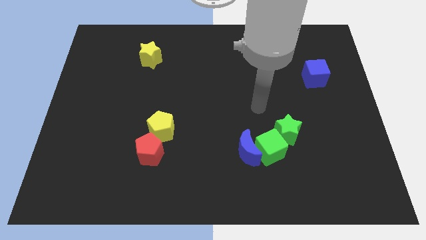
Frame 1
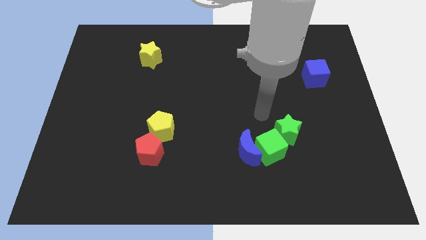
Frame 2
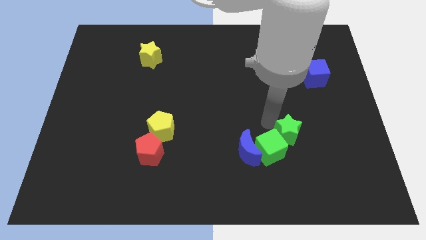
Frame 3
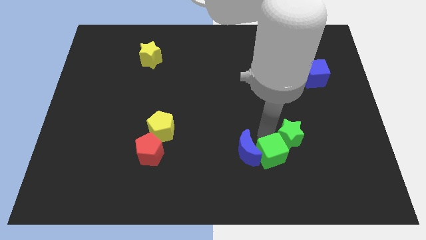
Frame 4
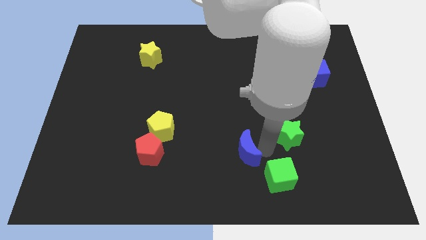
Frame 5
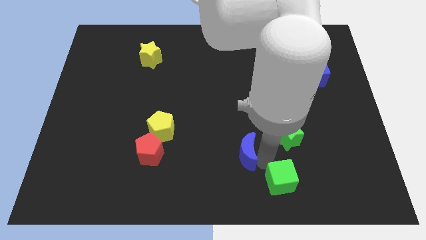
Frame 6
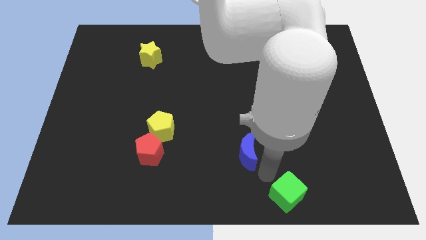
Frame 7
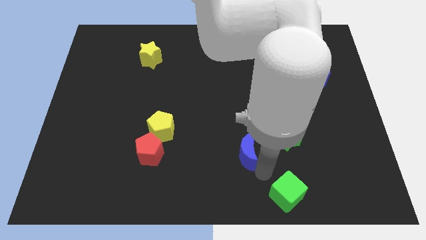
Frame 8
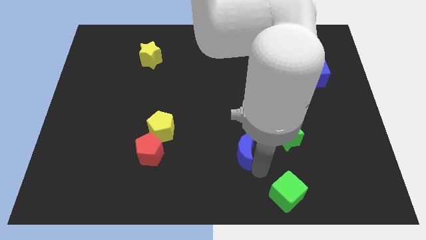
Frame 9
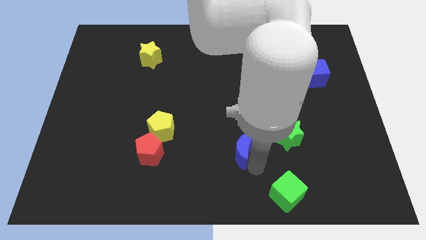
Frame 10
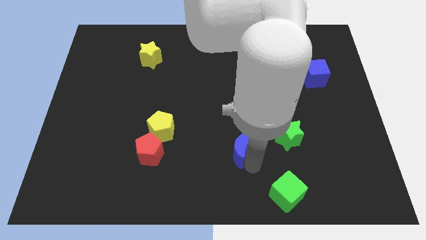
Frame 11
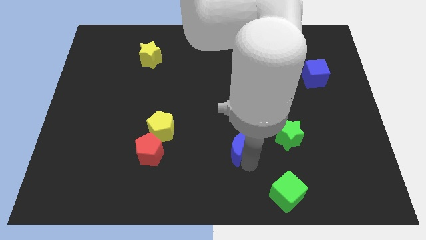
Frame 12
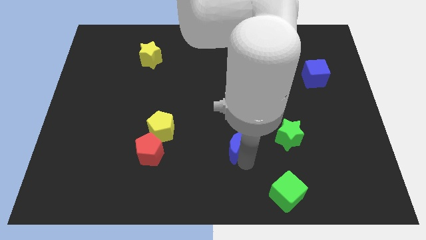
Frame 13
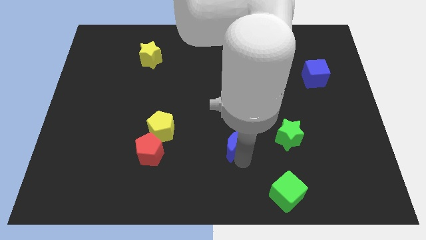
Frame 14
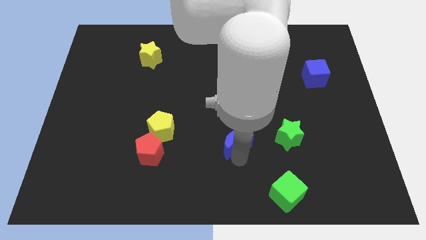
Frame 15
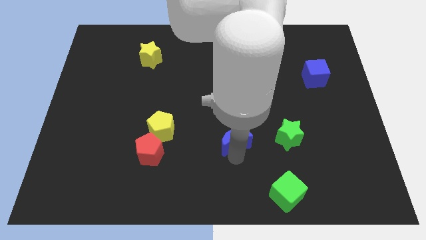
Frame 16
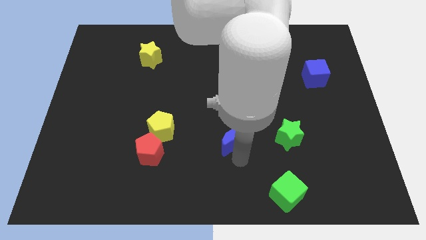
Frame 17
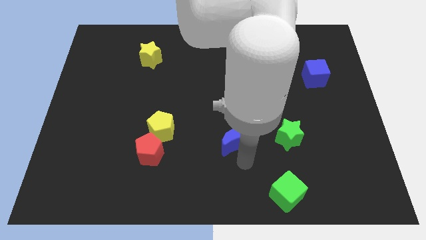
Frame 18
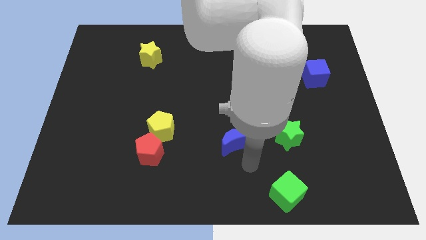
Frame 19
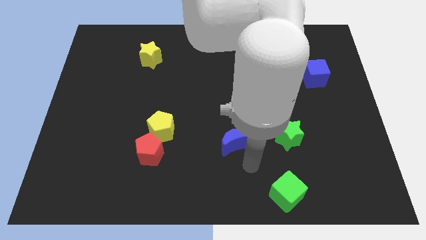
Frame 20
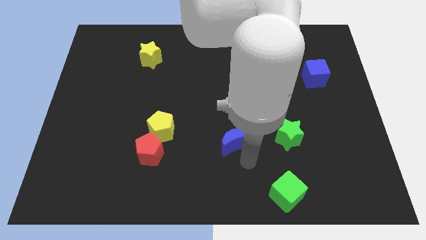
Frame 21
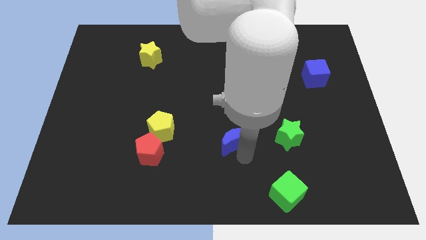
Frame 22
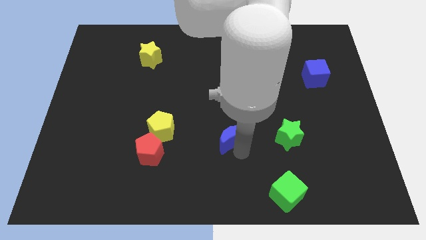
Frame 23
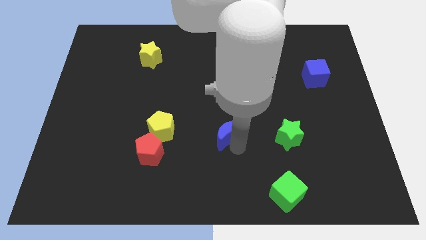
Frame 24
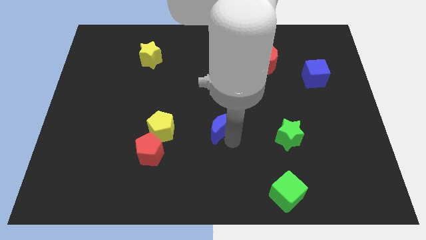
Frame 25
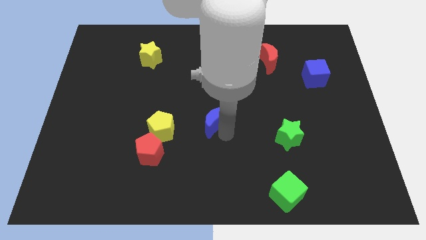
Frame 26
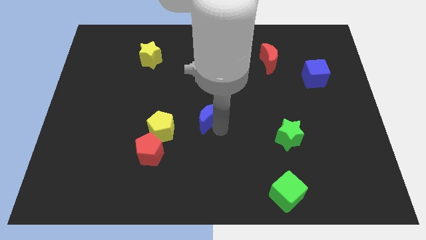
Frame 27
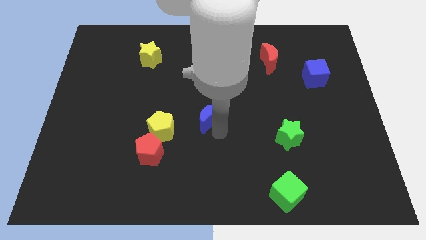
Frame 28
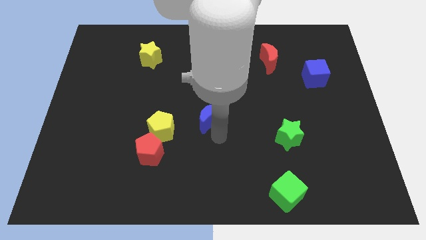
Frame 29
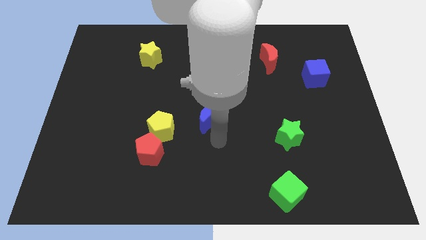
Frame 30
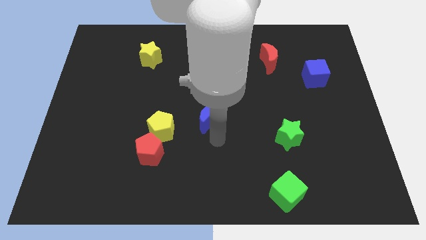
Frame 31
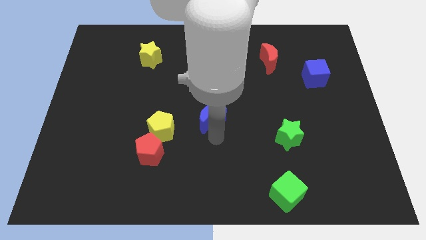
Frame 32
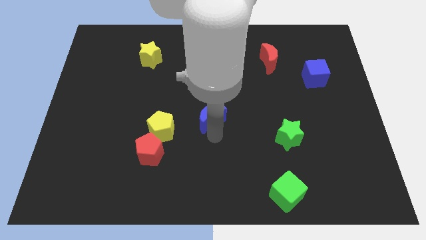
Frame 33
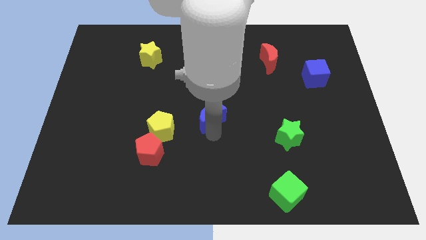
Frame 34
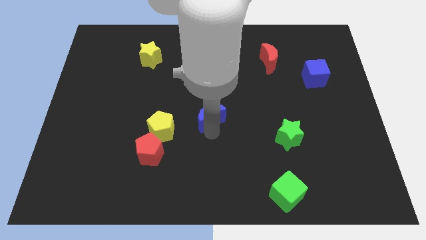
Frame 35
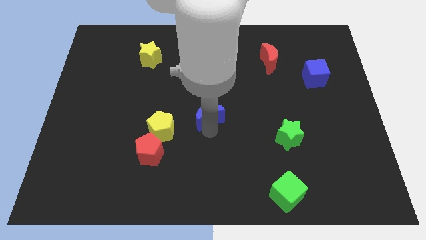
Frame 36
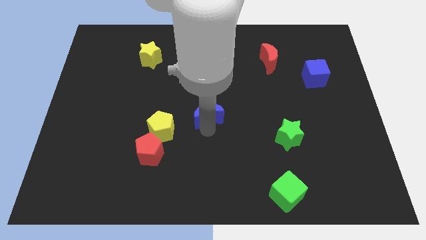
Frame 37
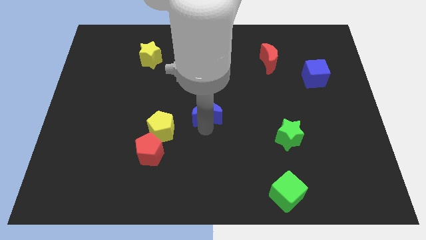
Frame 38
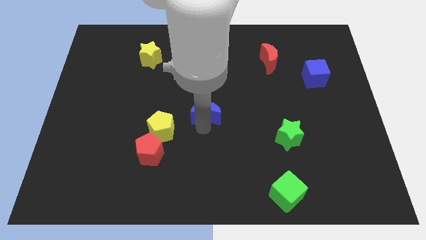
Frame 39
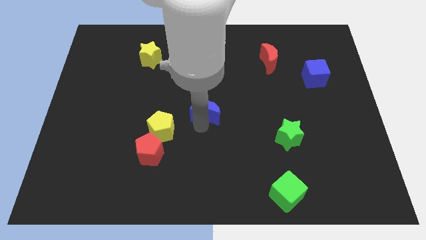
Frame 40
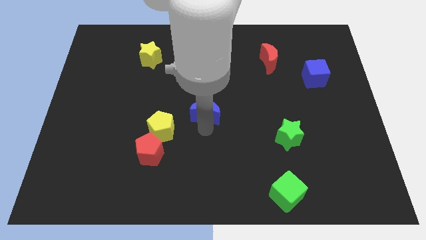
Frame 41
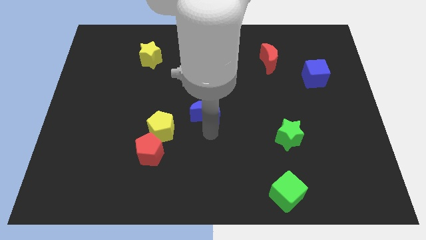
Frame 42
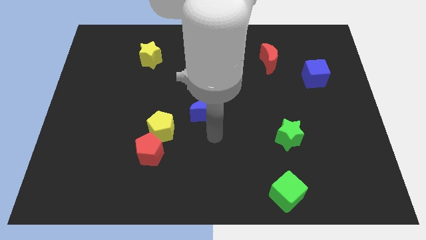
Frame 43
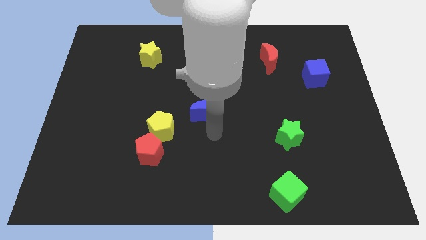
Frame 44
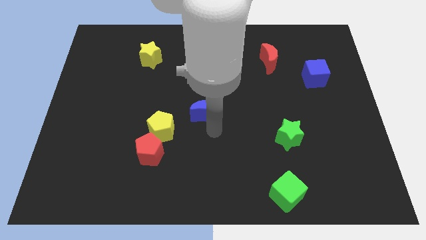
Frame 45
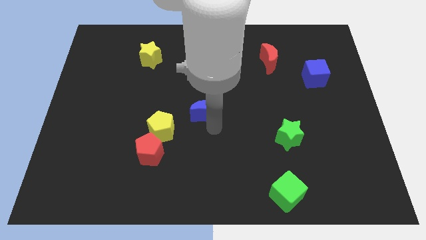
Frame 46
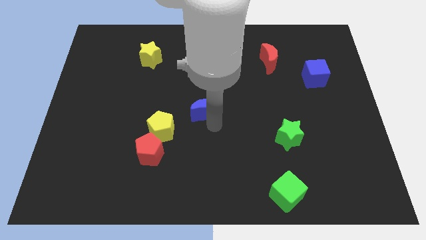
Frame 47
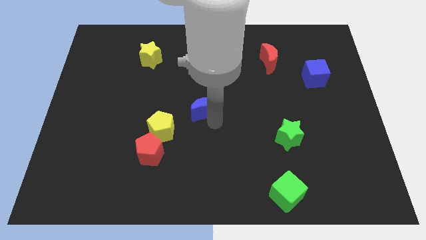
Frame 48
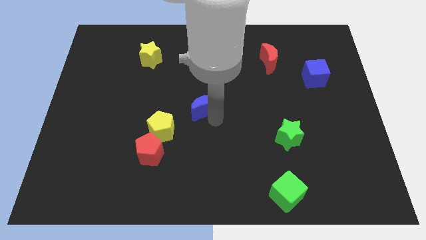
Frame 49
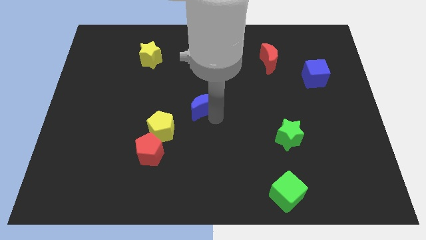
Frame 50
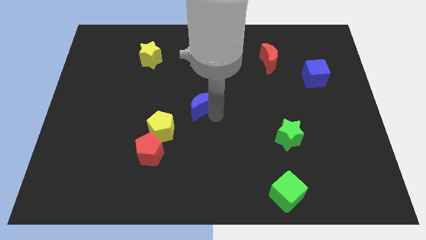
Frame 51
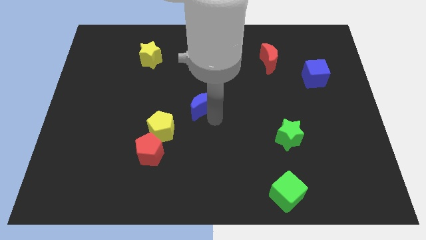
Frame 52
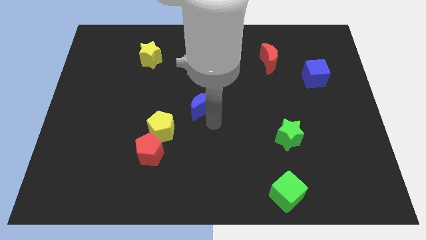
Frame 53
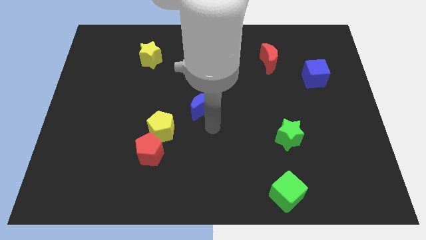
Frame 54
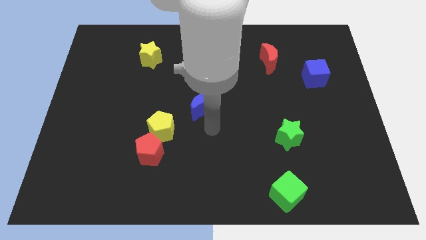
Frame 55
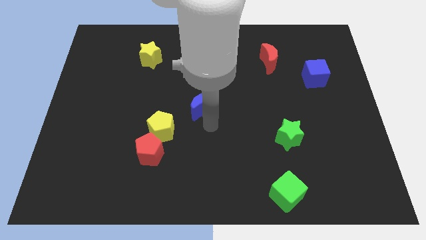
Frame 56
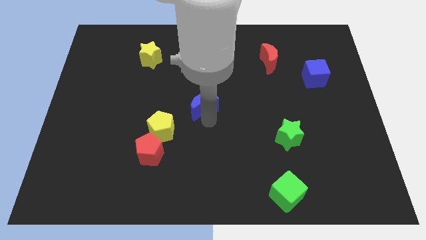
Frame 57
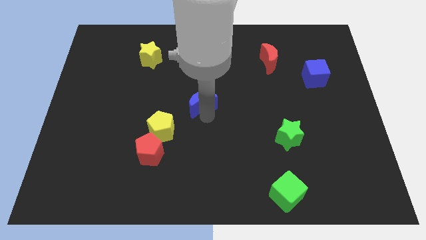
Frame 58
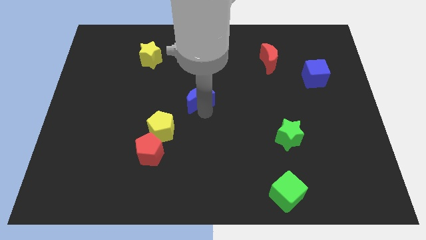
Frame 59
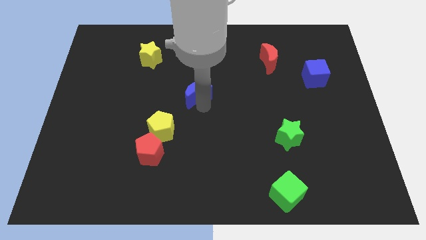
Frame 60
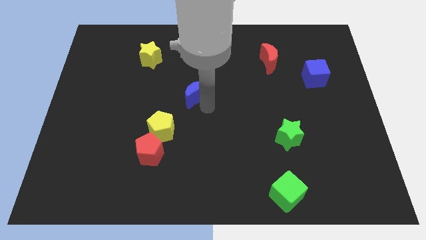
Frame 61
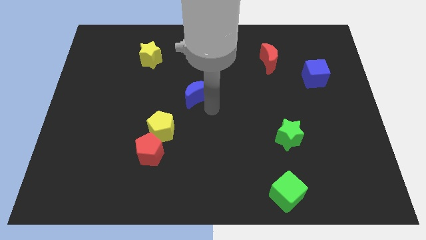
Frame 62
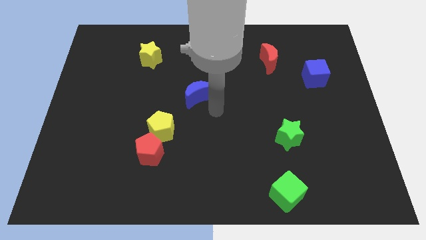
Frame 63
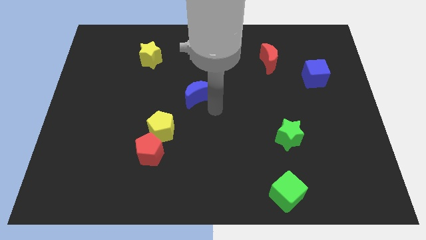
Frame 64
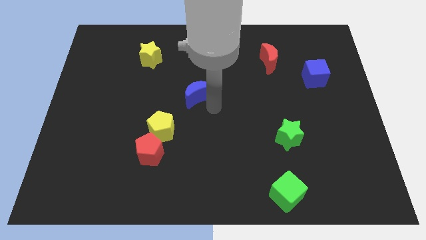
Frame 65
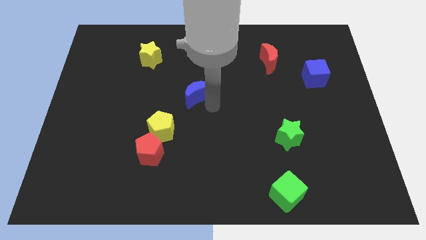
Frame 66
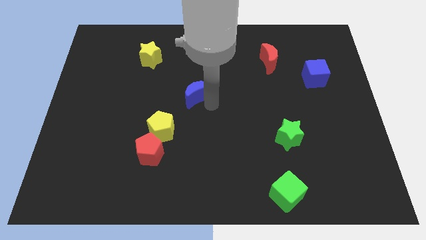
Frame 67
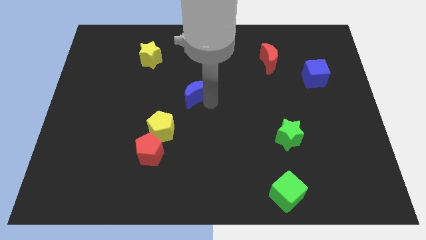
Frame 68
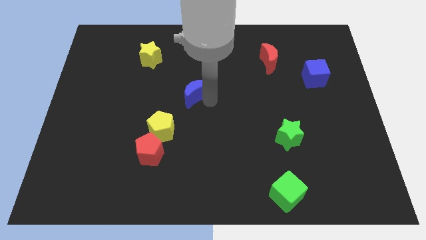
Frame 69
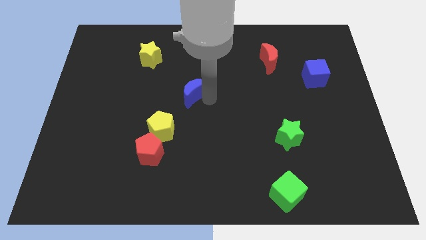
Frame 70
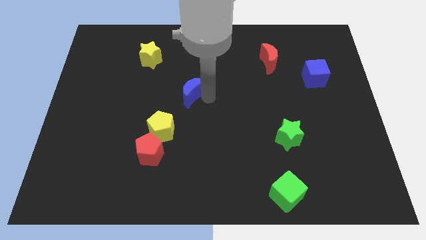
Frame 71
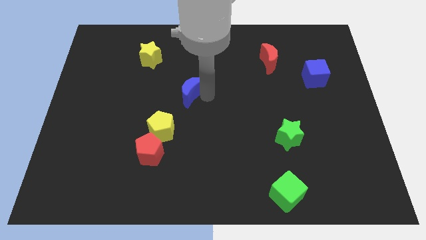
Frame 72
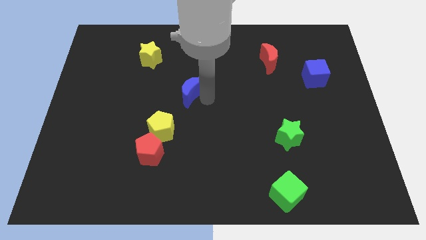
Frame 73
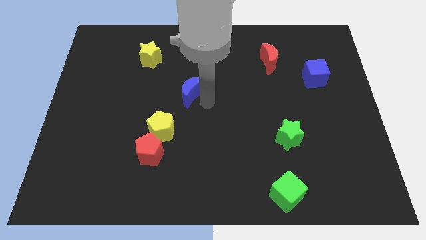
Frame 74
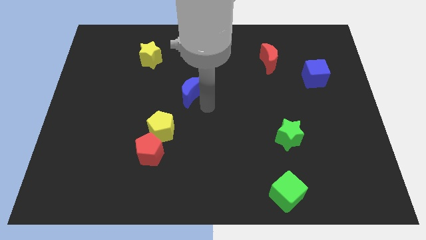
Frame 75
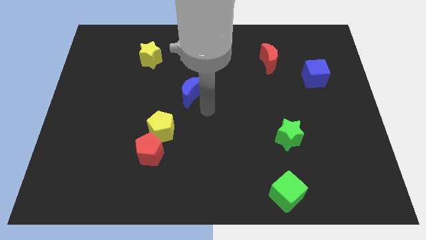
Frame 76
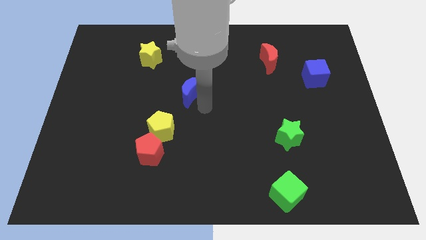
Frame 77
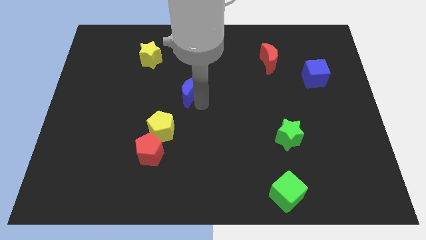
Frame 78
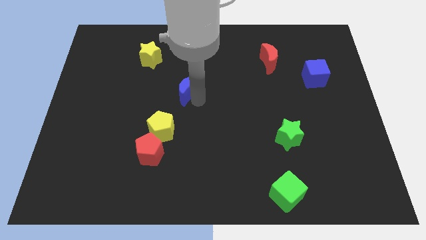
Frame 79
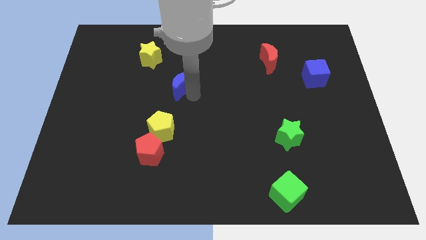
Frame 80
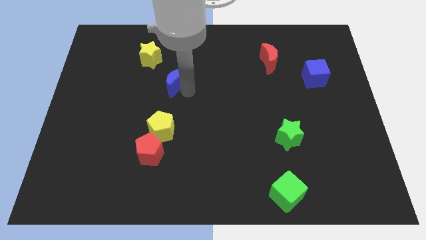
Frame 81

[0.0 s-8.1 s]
move the blue moon to the bottom right side of the yellow star
